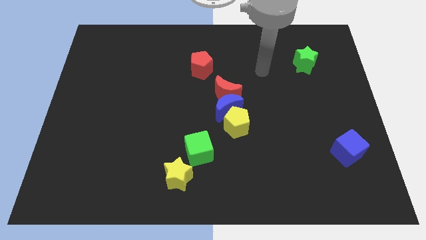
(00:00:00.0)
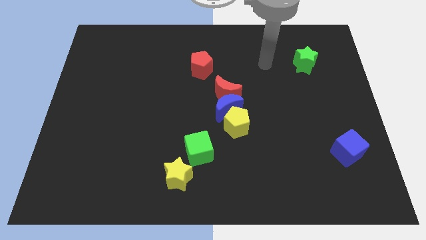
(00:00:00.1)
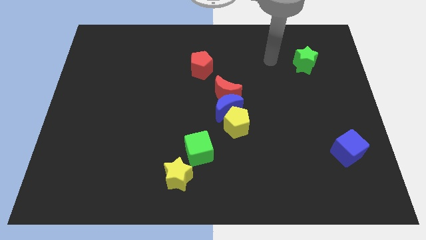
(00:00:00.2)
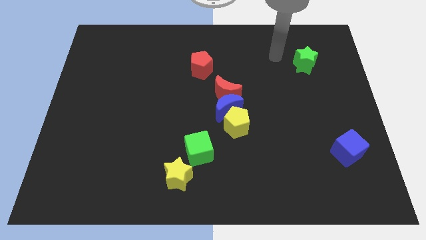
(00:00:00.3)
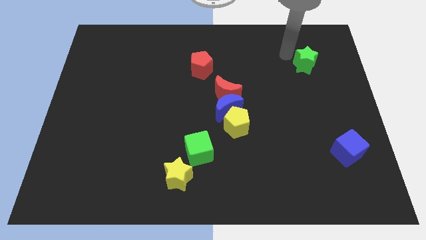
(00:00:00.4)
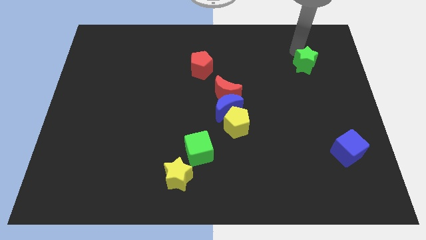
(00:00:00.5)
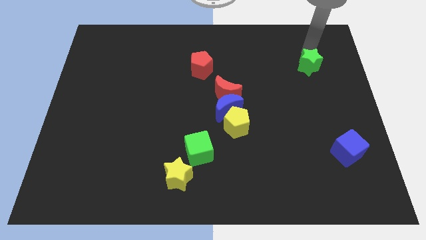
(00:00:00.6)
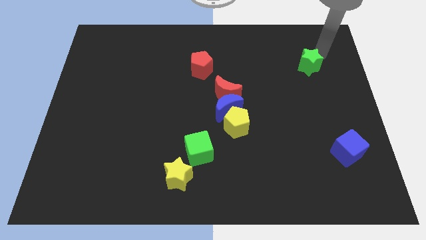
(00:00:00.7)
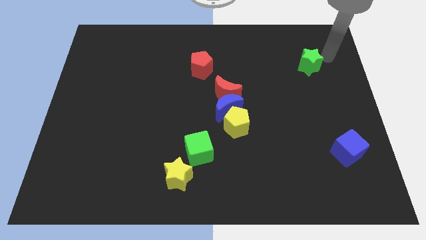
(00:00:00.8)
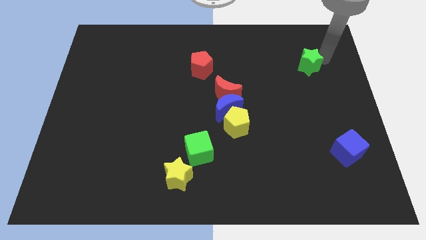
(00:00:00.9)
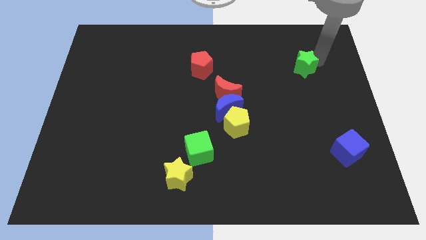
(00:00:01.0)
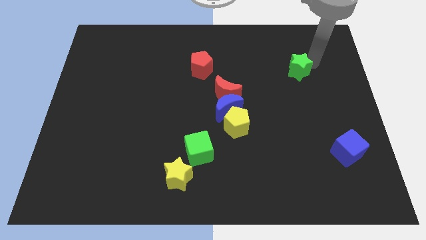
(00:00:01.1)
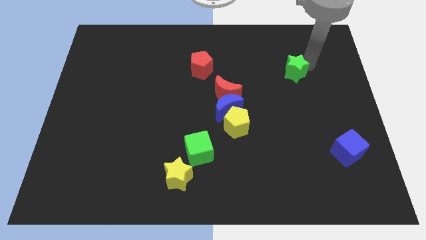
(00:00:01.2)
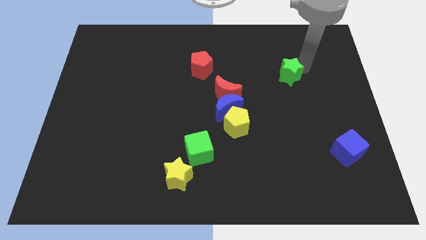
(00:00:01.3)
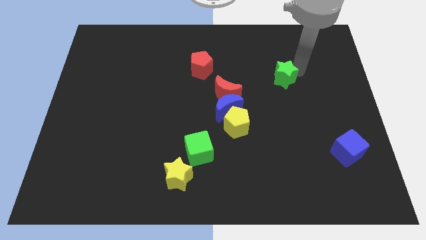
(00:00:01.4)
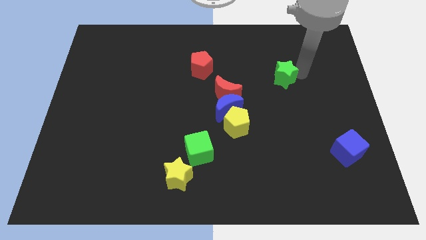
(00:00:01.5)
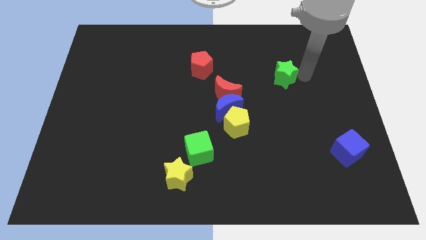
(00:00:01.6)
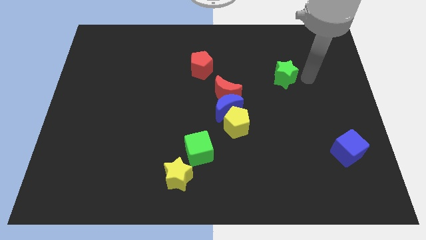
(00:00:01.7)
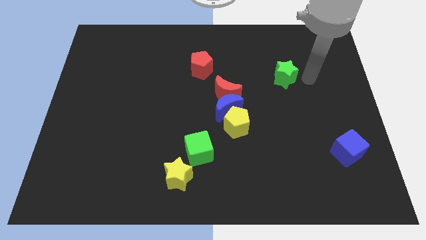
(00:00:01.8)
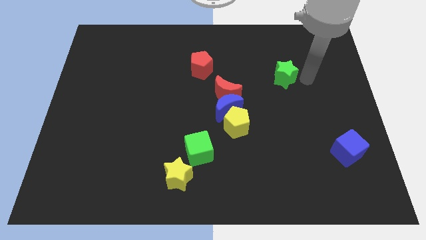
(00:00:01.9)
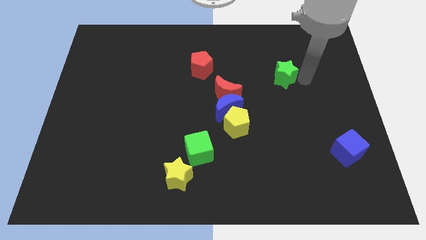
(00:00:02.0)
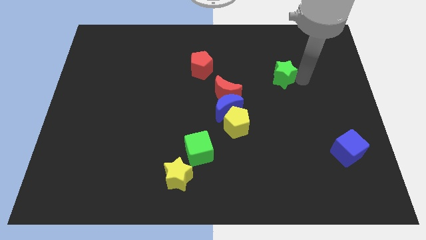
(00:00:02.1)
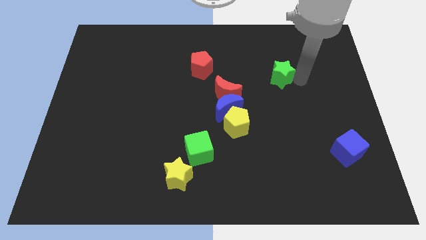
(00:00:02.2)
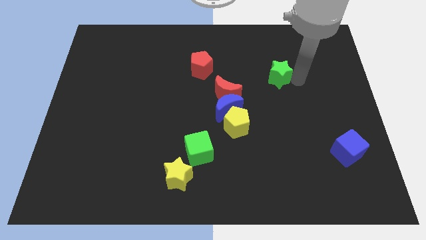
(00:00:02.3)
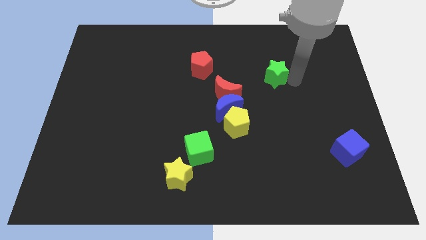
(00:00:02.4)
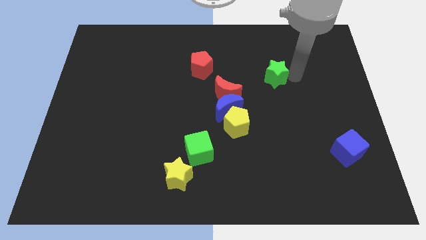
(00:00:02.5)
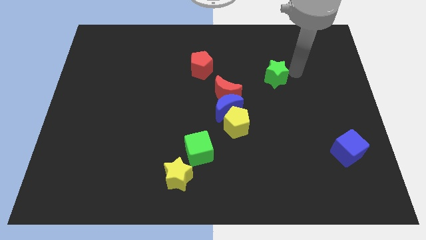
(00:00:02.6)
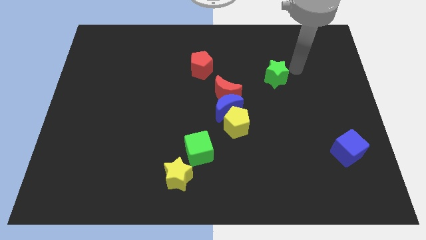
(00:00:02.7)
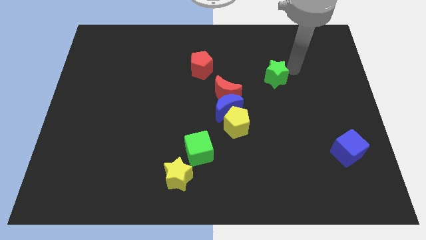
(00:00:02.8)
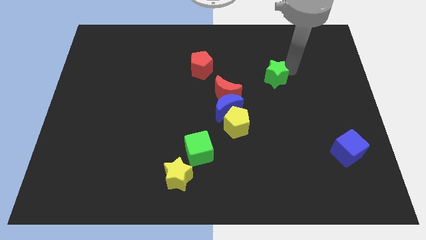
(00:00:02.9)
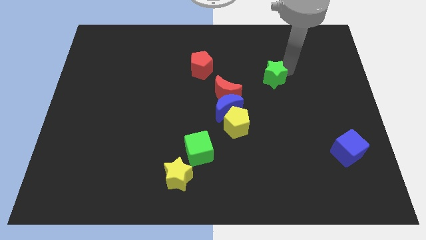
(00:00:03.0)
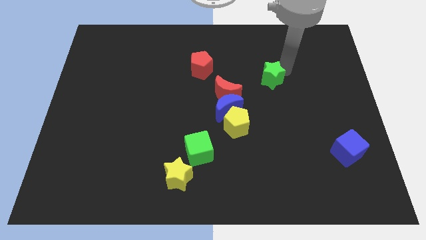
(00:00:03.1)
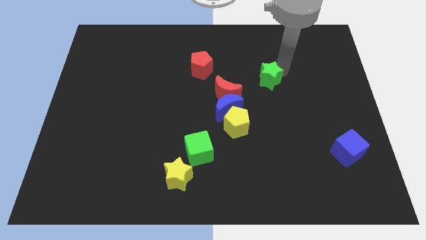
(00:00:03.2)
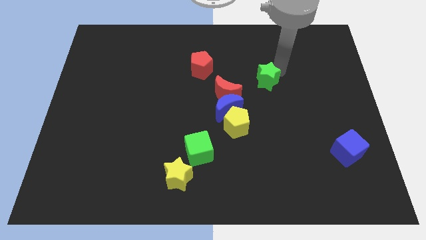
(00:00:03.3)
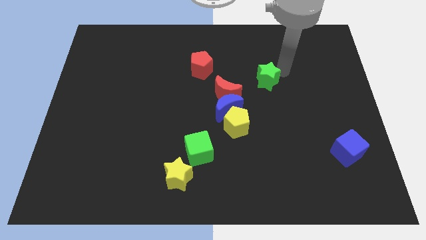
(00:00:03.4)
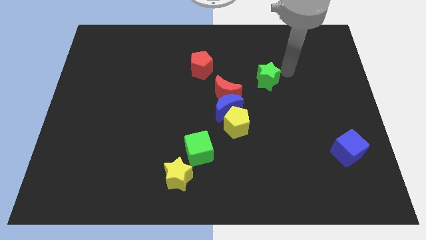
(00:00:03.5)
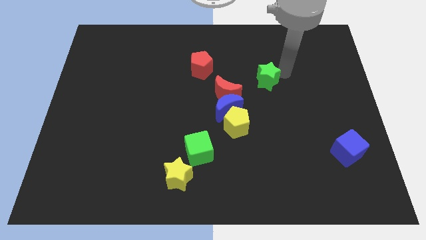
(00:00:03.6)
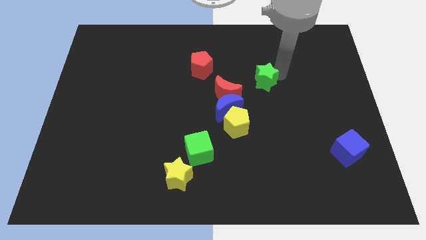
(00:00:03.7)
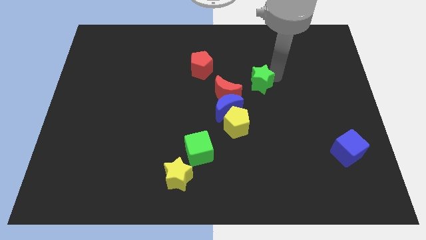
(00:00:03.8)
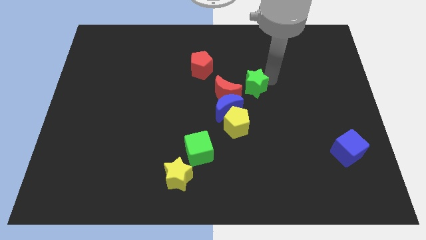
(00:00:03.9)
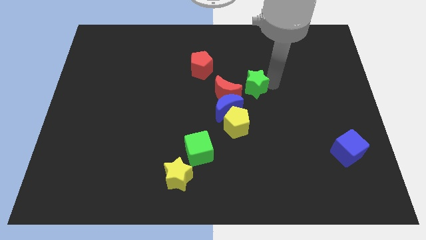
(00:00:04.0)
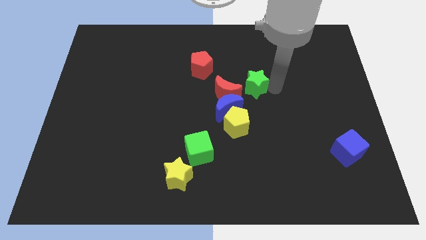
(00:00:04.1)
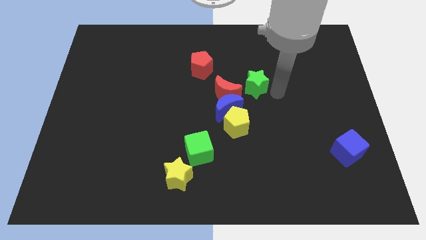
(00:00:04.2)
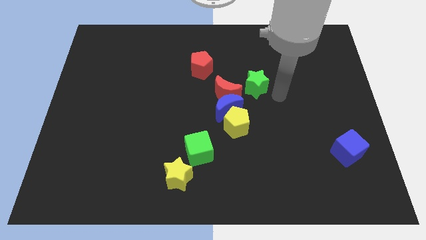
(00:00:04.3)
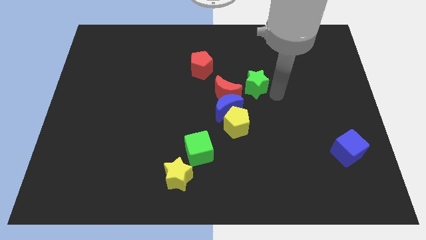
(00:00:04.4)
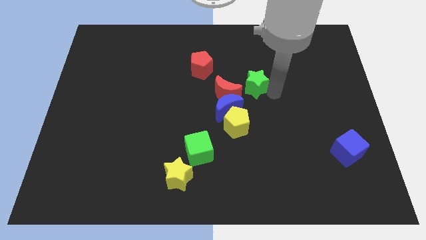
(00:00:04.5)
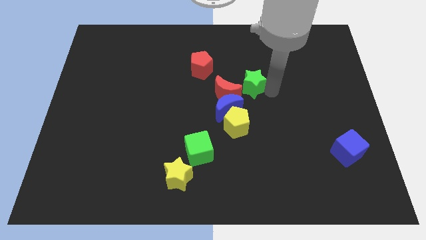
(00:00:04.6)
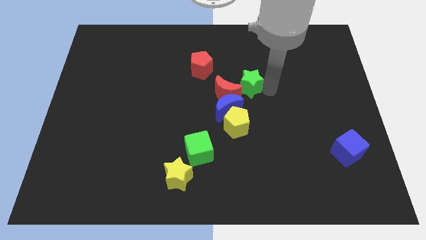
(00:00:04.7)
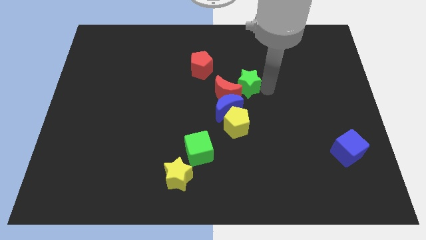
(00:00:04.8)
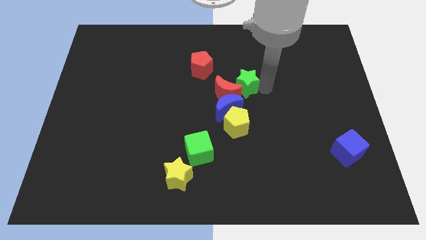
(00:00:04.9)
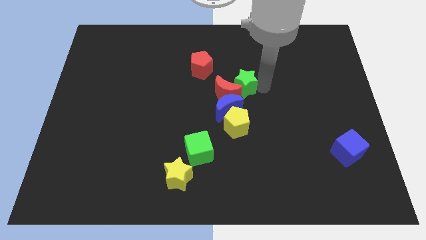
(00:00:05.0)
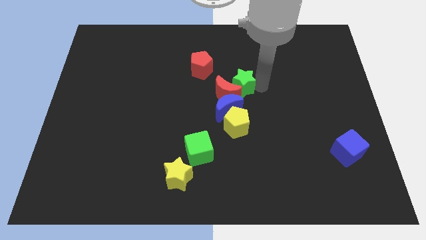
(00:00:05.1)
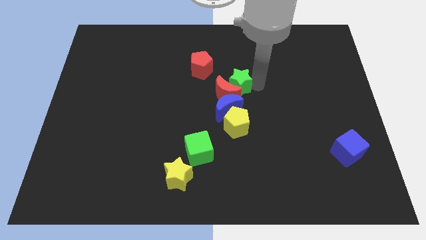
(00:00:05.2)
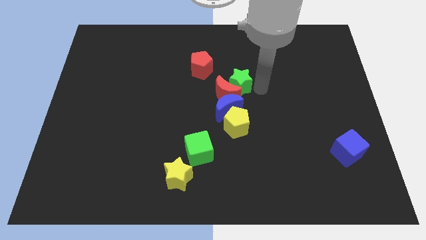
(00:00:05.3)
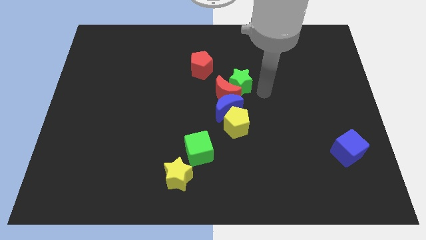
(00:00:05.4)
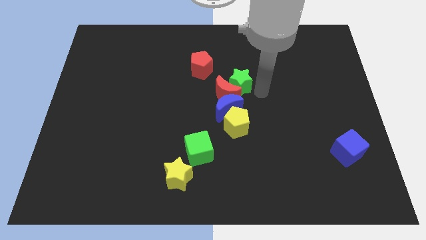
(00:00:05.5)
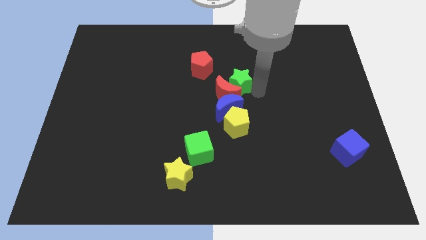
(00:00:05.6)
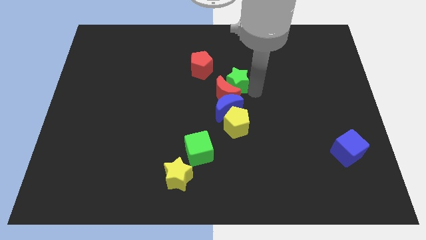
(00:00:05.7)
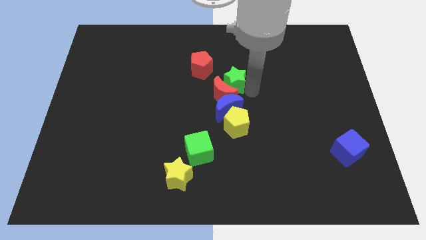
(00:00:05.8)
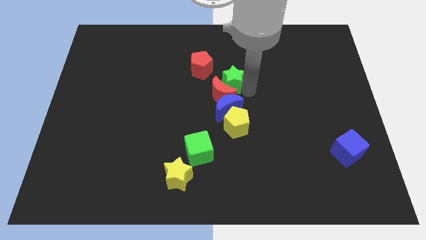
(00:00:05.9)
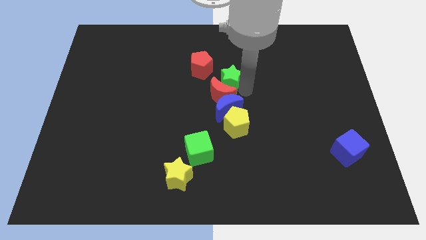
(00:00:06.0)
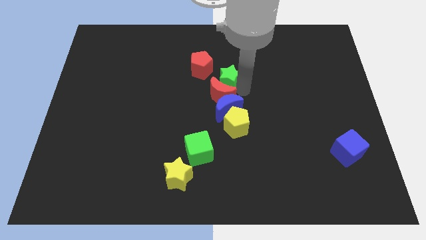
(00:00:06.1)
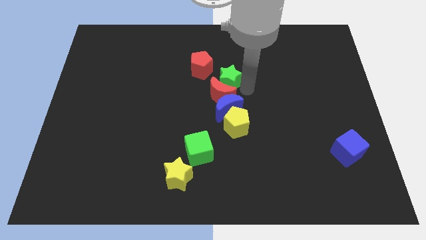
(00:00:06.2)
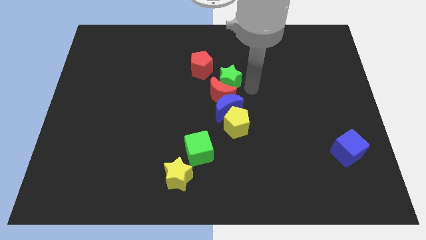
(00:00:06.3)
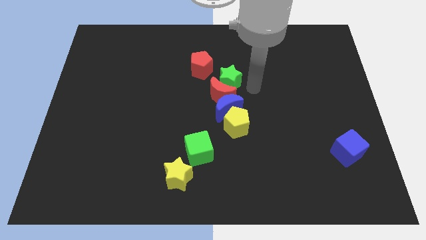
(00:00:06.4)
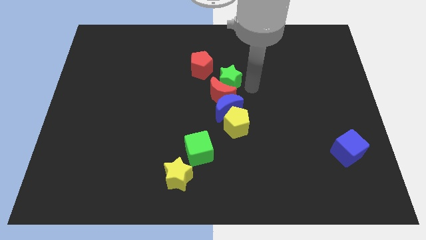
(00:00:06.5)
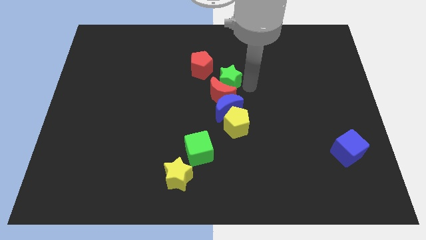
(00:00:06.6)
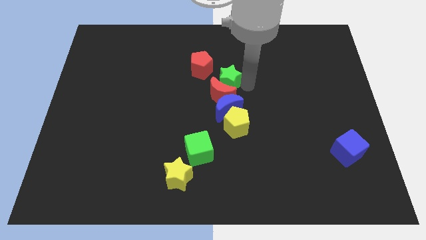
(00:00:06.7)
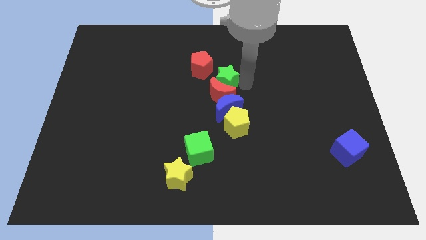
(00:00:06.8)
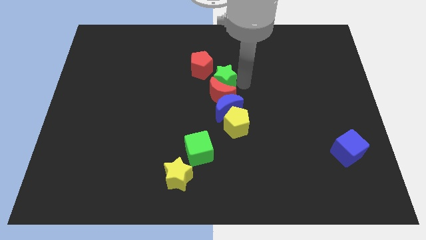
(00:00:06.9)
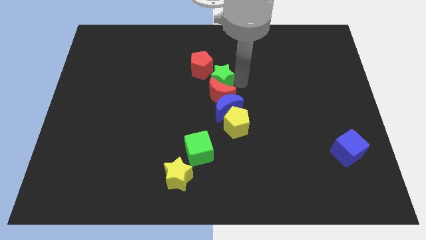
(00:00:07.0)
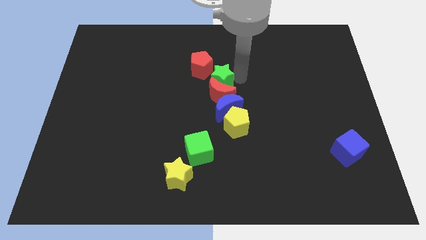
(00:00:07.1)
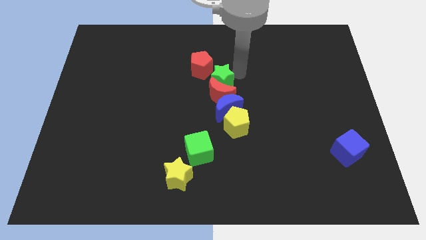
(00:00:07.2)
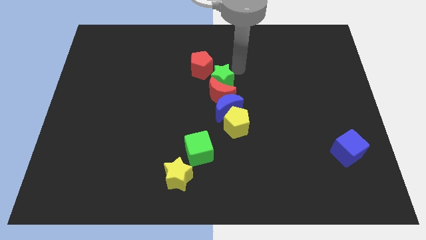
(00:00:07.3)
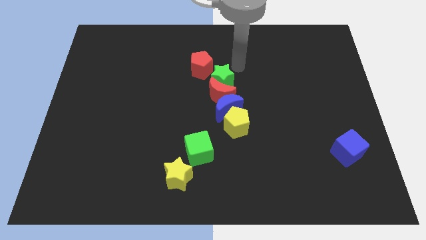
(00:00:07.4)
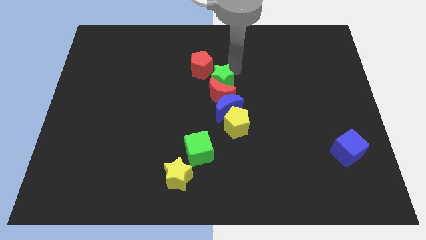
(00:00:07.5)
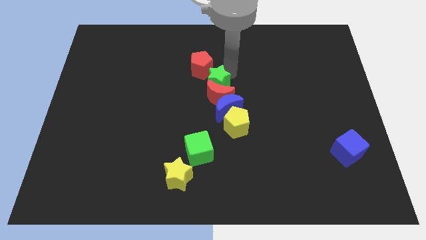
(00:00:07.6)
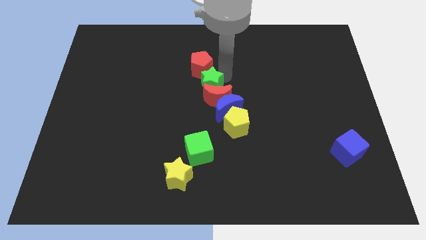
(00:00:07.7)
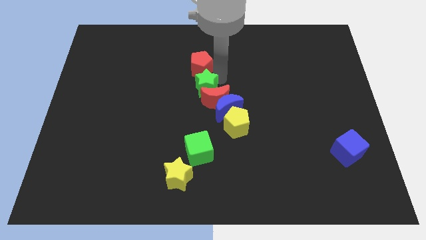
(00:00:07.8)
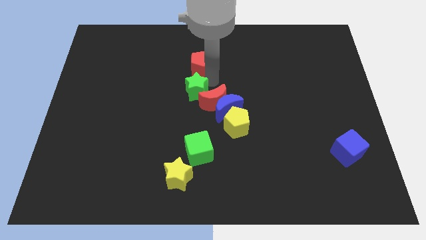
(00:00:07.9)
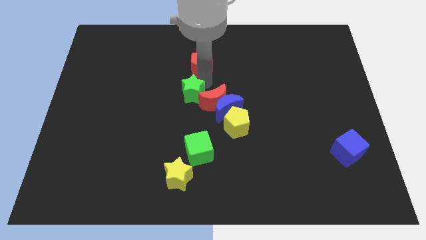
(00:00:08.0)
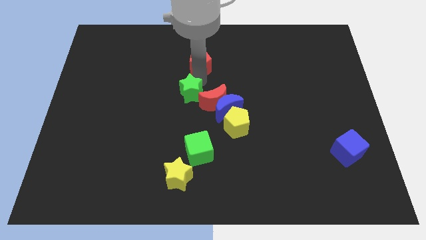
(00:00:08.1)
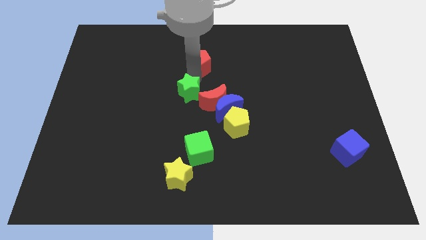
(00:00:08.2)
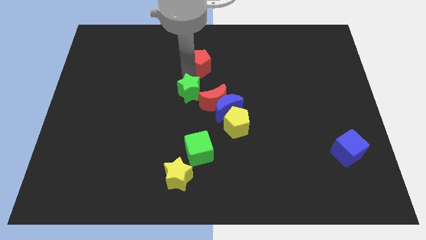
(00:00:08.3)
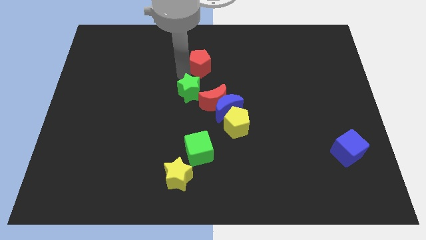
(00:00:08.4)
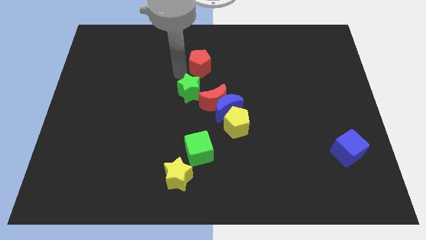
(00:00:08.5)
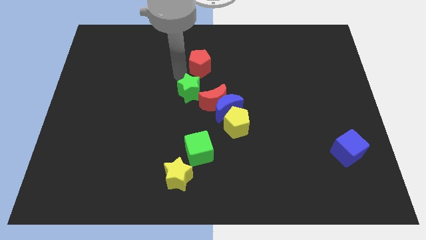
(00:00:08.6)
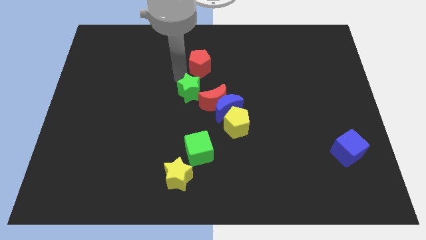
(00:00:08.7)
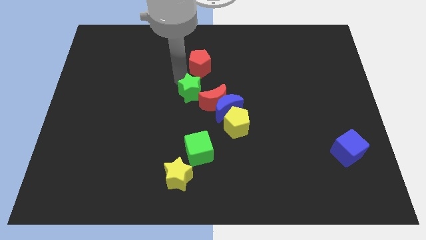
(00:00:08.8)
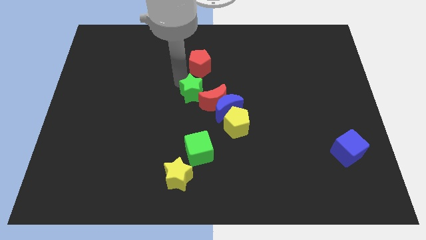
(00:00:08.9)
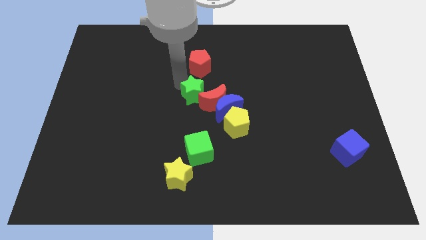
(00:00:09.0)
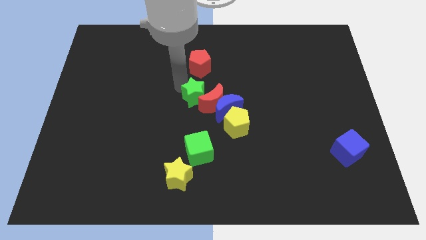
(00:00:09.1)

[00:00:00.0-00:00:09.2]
push the green star to the top side of the green cube
